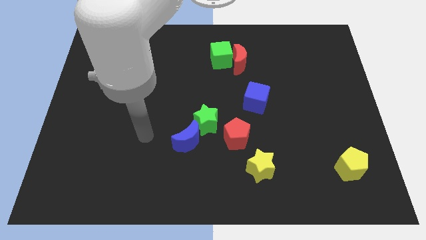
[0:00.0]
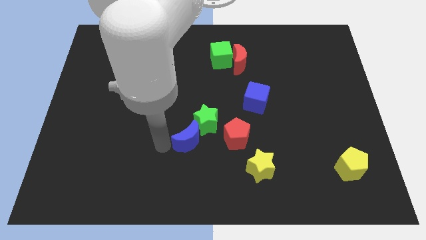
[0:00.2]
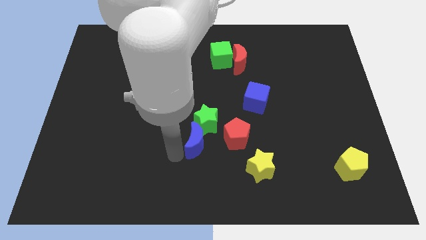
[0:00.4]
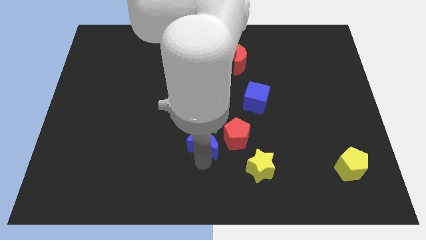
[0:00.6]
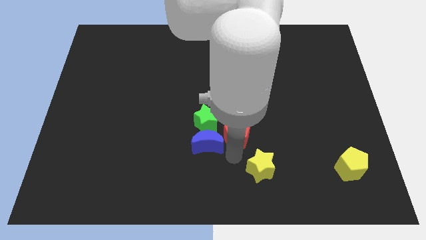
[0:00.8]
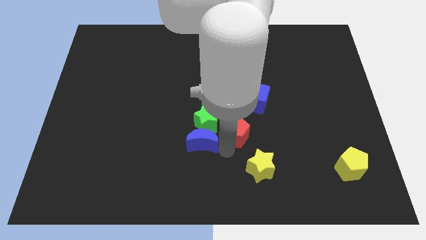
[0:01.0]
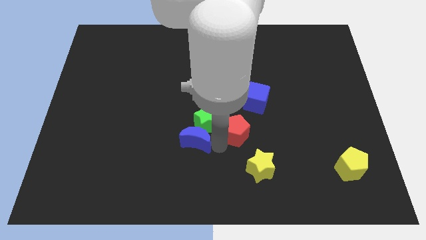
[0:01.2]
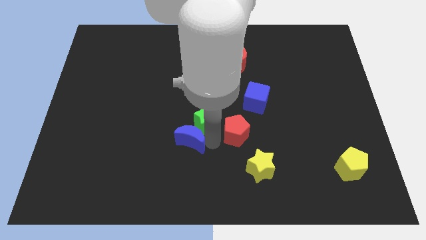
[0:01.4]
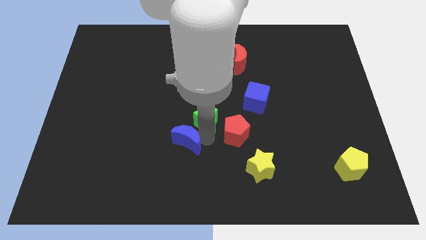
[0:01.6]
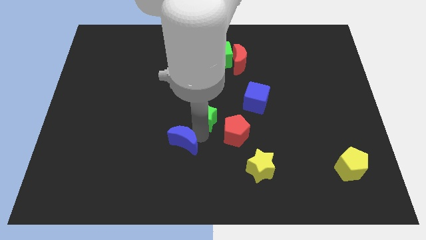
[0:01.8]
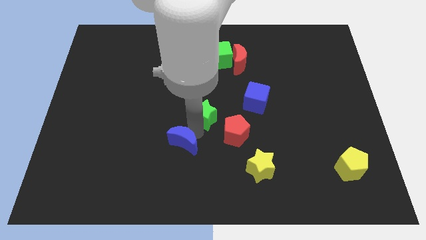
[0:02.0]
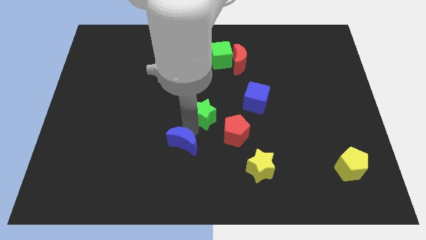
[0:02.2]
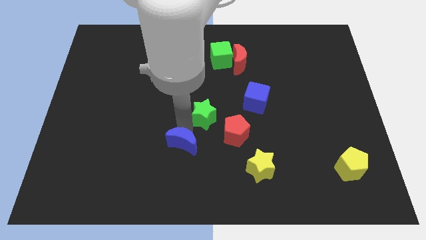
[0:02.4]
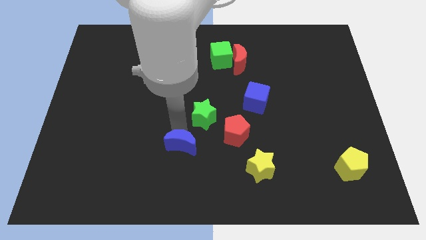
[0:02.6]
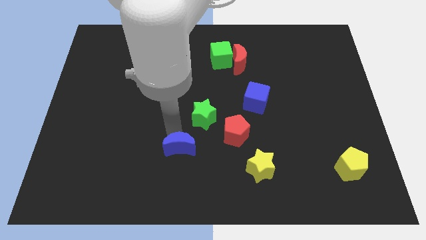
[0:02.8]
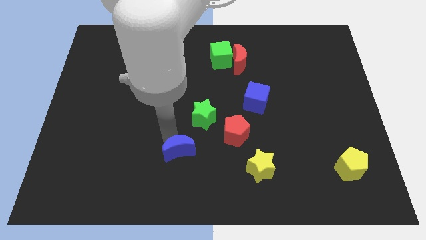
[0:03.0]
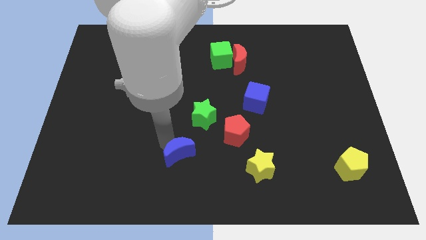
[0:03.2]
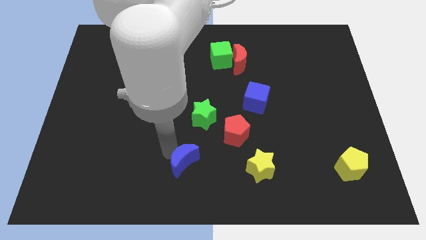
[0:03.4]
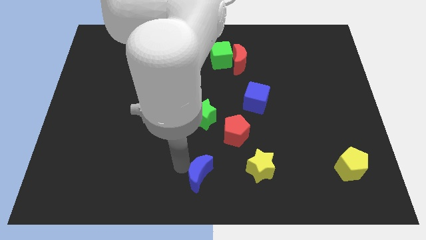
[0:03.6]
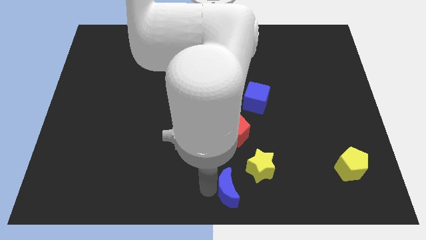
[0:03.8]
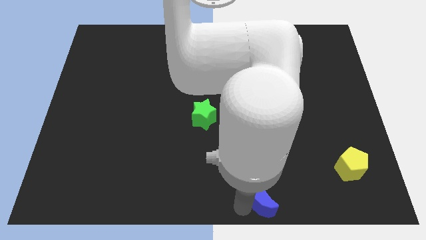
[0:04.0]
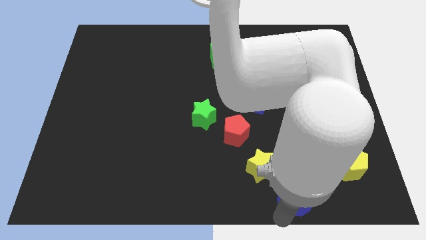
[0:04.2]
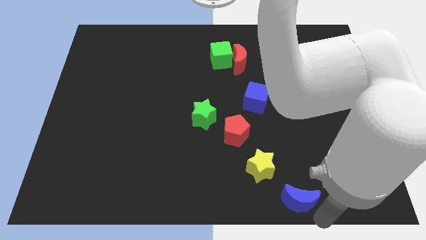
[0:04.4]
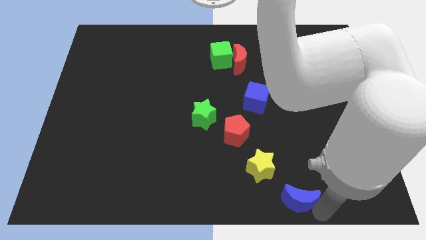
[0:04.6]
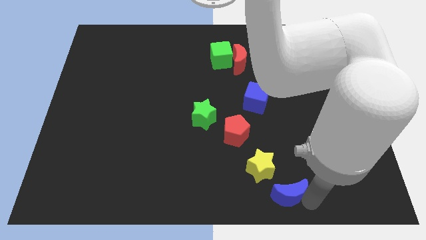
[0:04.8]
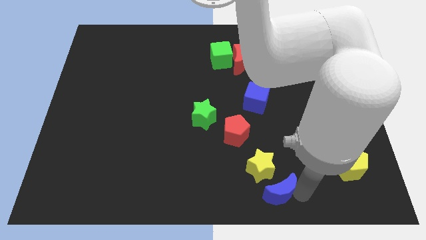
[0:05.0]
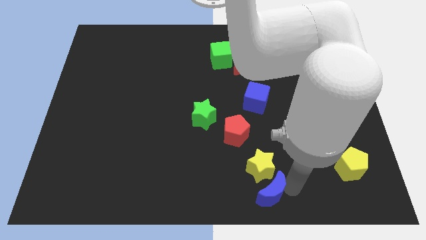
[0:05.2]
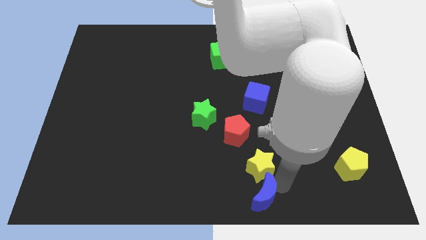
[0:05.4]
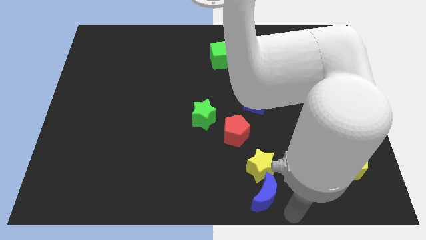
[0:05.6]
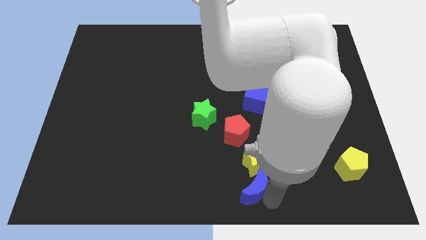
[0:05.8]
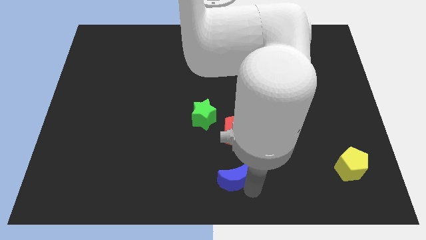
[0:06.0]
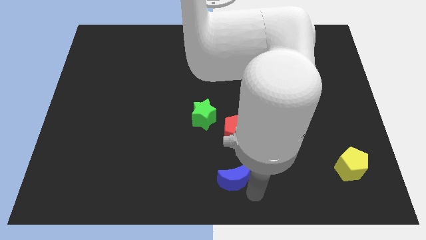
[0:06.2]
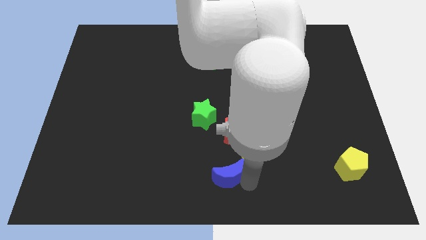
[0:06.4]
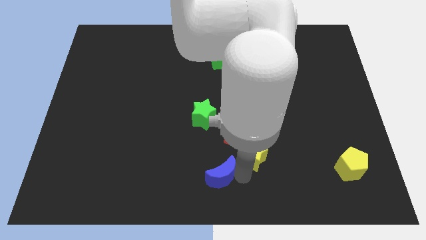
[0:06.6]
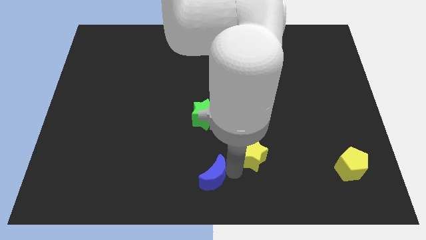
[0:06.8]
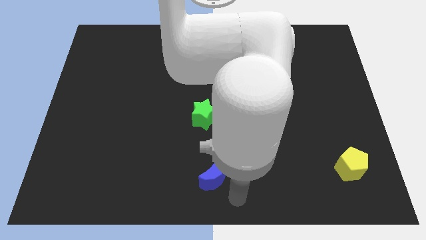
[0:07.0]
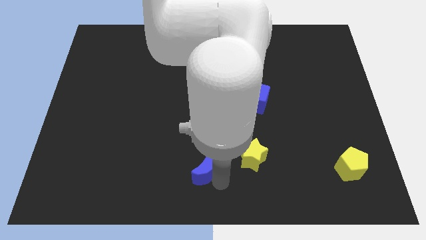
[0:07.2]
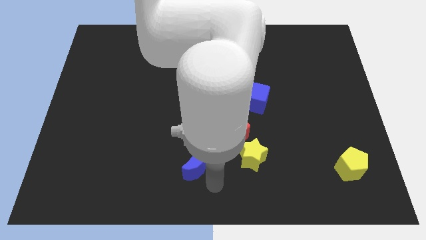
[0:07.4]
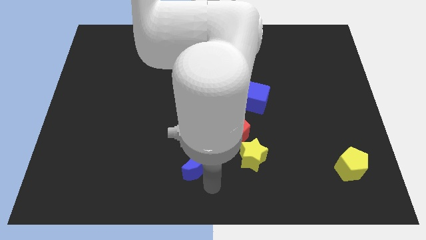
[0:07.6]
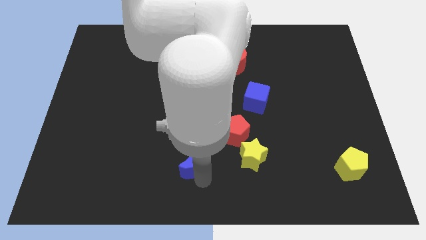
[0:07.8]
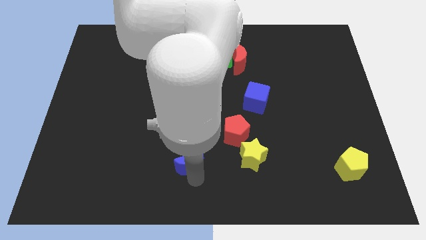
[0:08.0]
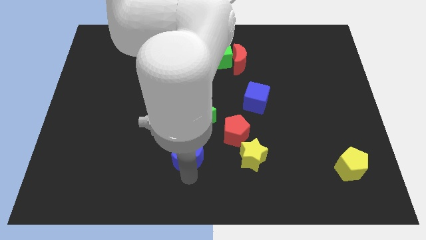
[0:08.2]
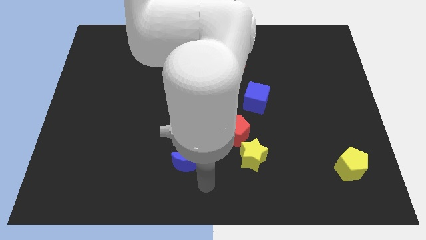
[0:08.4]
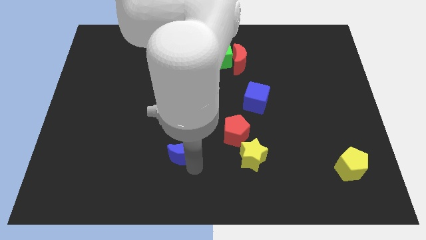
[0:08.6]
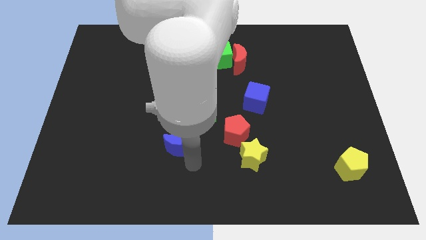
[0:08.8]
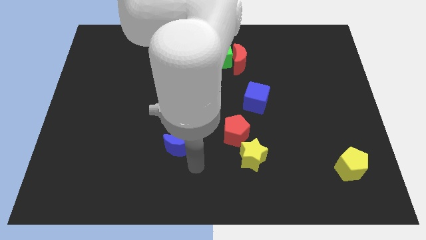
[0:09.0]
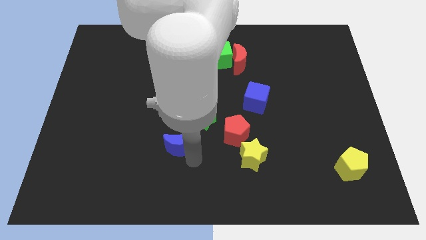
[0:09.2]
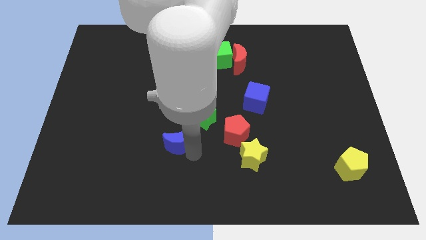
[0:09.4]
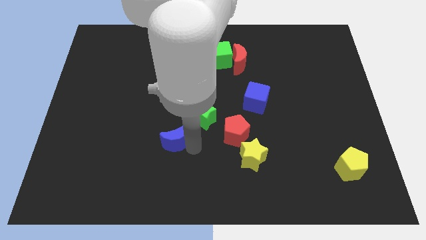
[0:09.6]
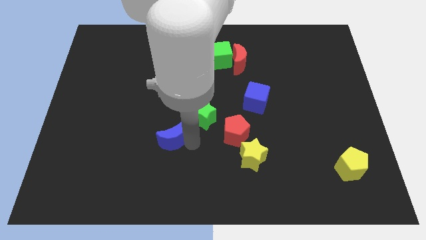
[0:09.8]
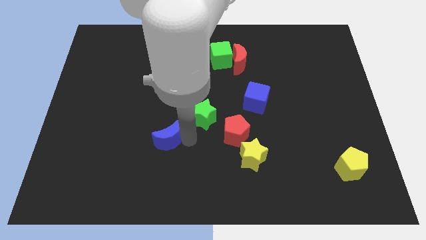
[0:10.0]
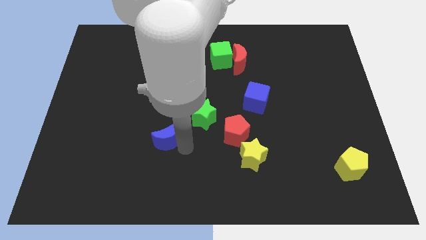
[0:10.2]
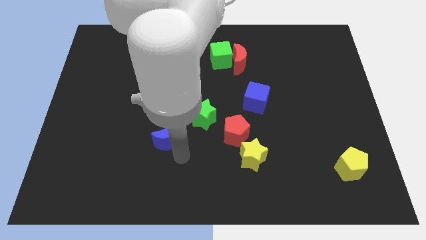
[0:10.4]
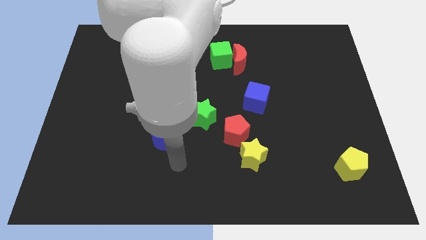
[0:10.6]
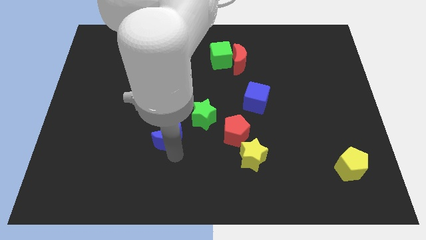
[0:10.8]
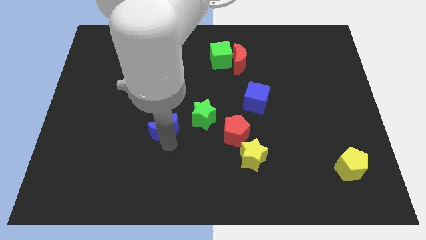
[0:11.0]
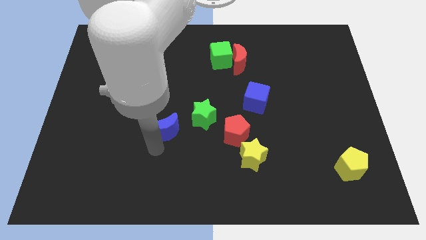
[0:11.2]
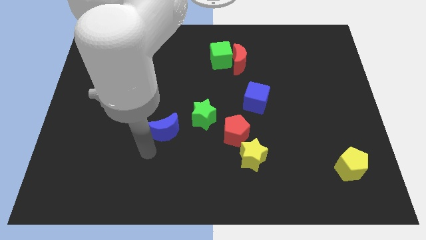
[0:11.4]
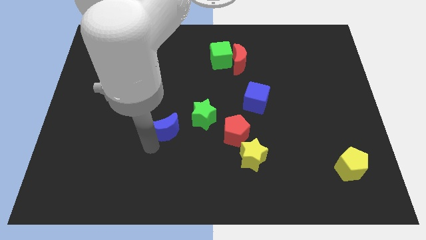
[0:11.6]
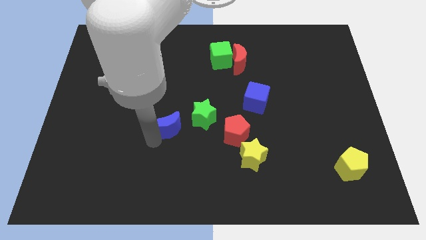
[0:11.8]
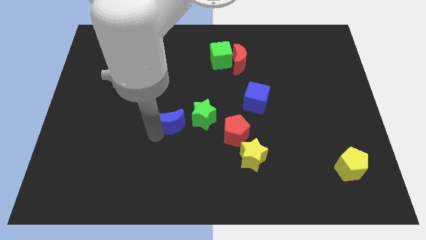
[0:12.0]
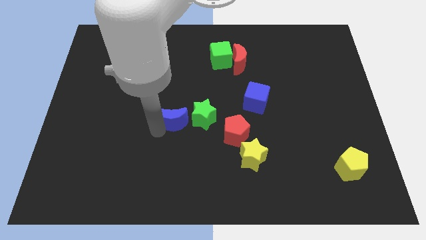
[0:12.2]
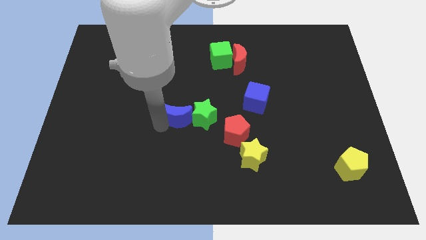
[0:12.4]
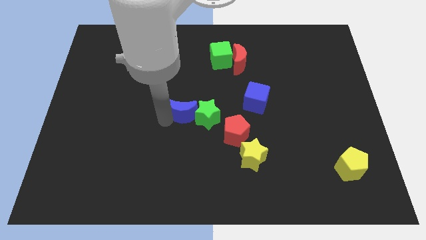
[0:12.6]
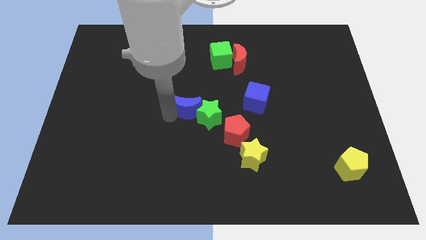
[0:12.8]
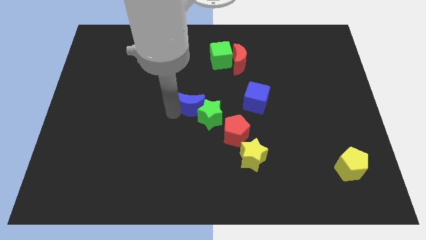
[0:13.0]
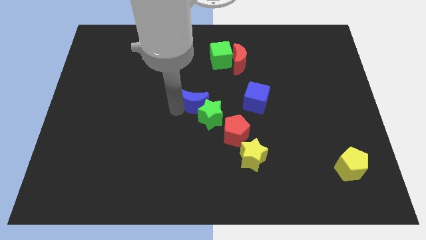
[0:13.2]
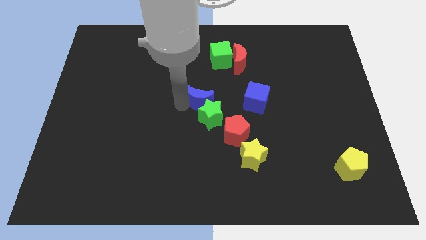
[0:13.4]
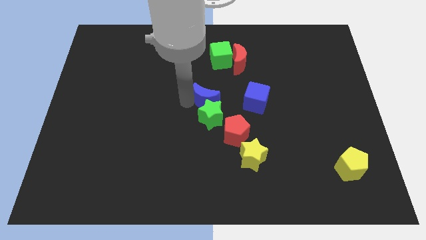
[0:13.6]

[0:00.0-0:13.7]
slide the blue moon below the green cube
